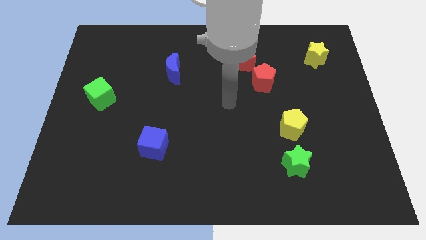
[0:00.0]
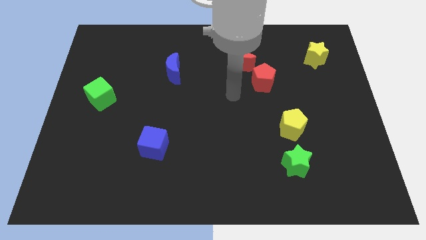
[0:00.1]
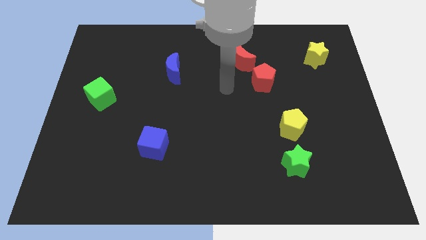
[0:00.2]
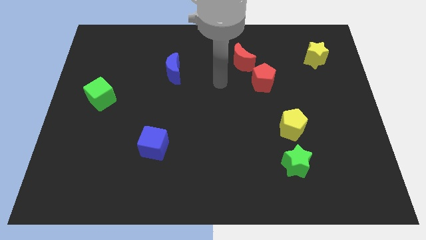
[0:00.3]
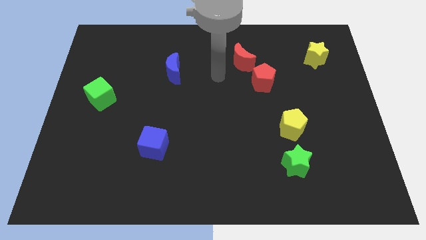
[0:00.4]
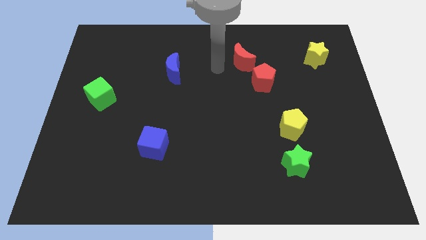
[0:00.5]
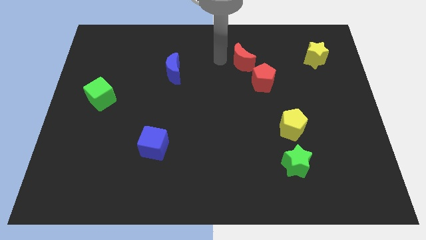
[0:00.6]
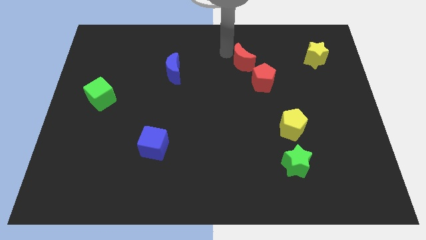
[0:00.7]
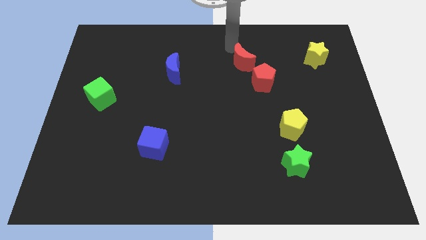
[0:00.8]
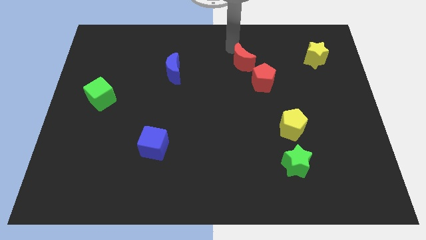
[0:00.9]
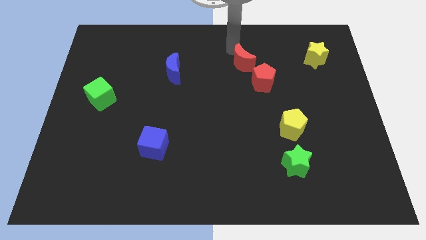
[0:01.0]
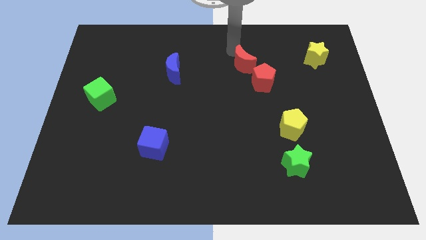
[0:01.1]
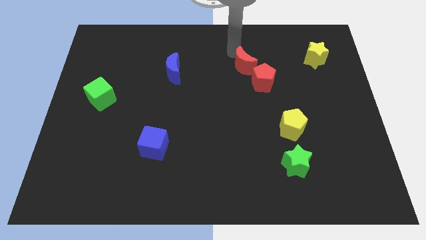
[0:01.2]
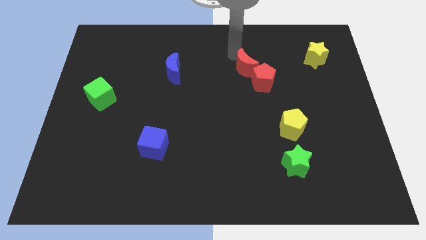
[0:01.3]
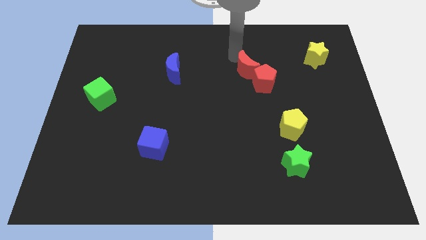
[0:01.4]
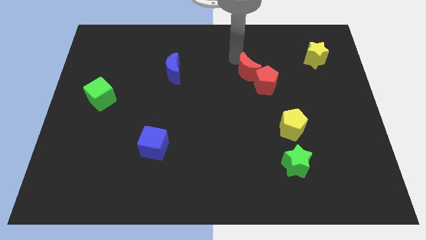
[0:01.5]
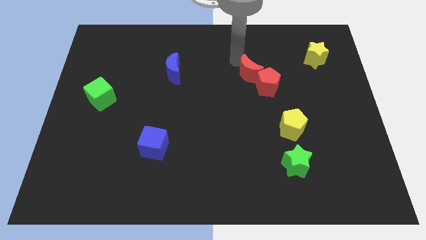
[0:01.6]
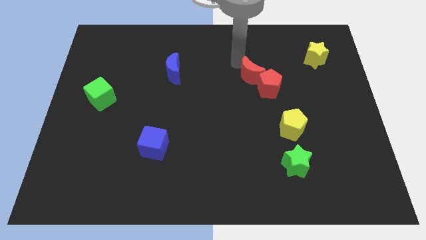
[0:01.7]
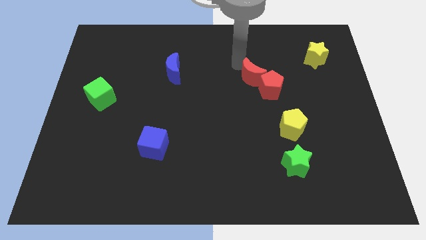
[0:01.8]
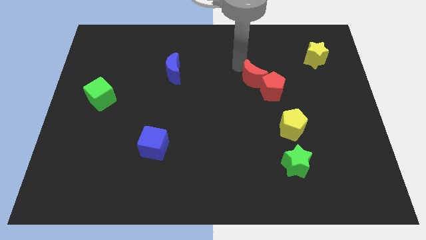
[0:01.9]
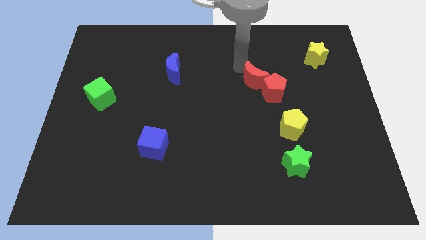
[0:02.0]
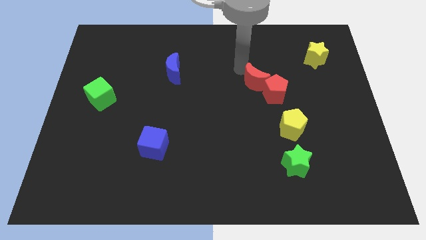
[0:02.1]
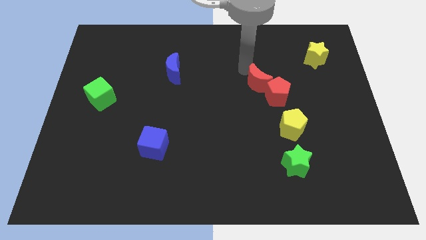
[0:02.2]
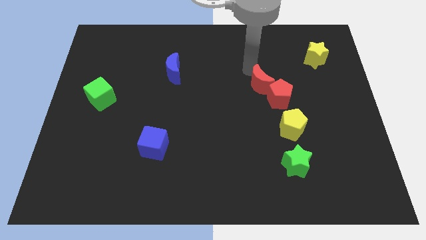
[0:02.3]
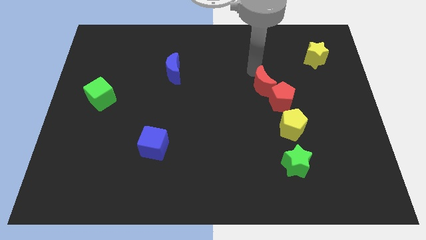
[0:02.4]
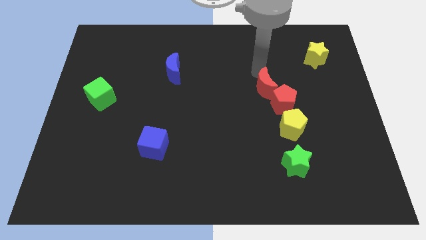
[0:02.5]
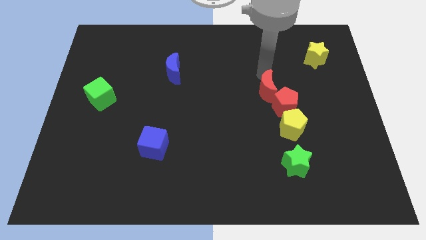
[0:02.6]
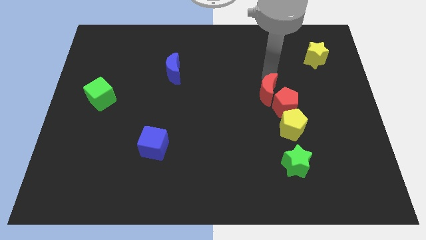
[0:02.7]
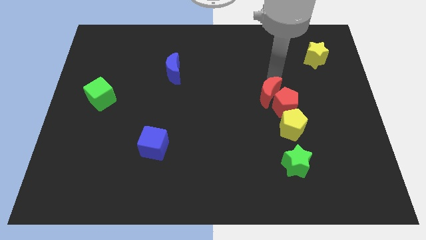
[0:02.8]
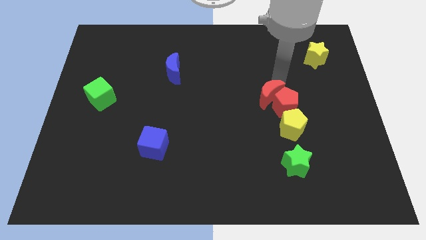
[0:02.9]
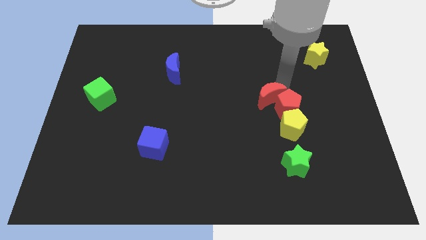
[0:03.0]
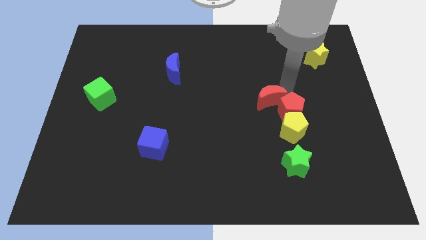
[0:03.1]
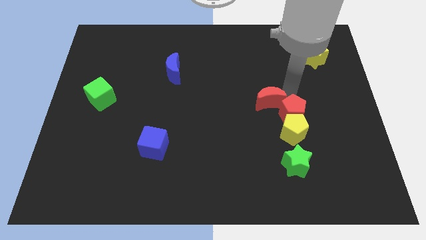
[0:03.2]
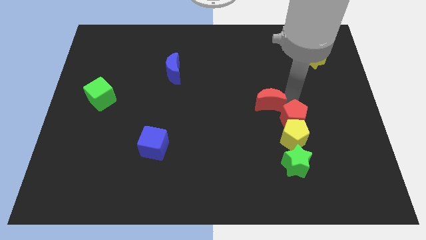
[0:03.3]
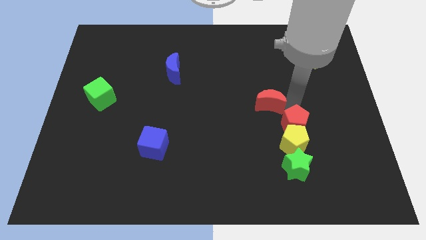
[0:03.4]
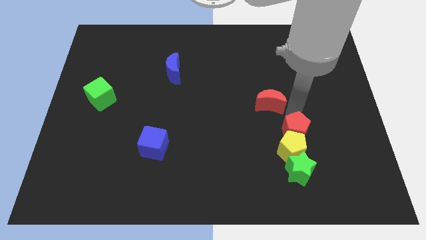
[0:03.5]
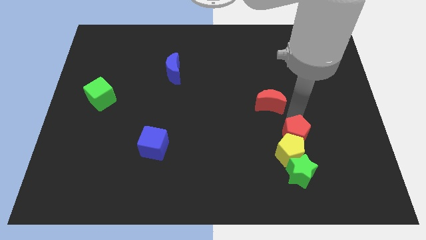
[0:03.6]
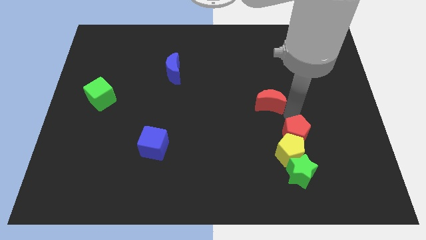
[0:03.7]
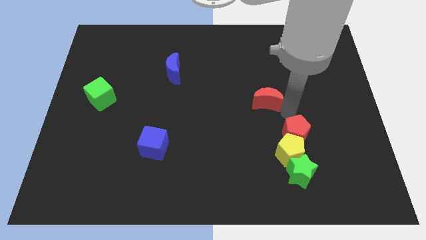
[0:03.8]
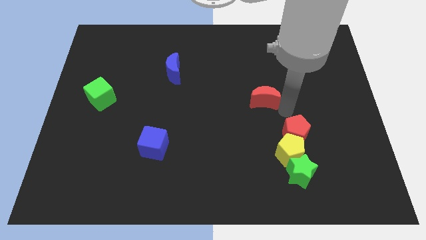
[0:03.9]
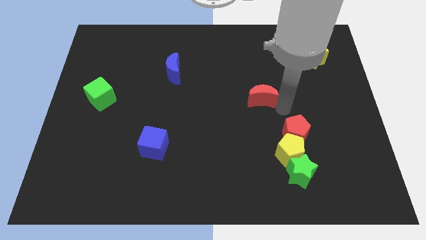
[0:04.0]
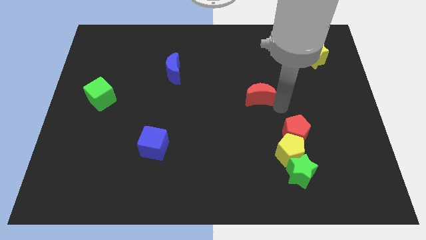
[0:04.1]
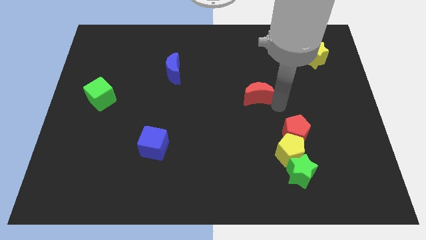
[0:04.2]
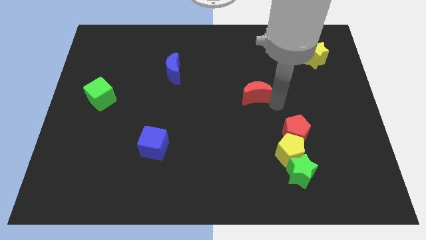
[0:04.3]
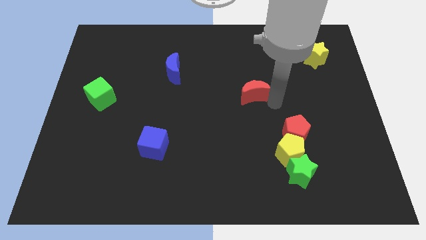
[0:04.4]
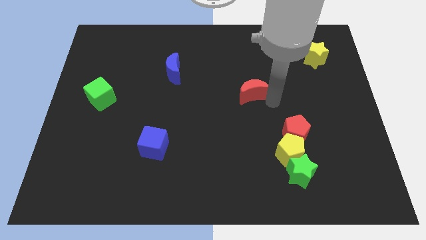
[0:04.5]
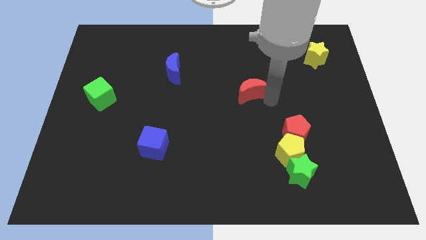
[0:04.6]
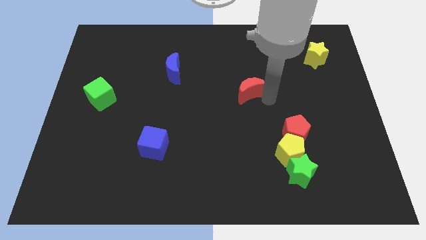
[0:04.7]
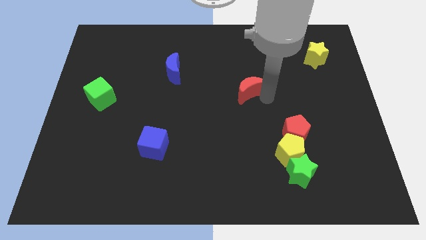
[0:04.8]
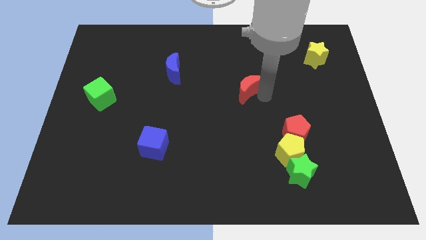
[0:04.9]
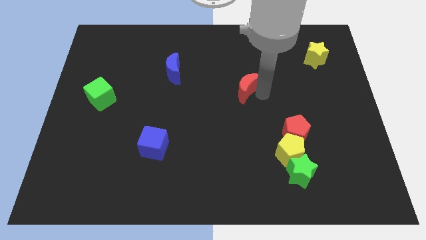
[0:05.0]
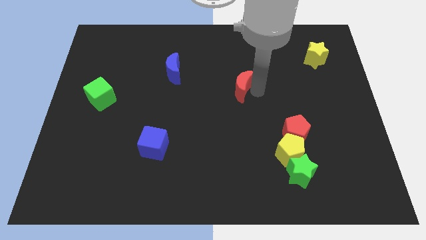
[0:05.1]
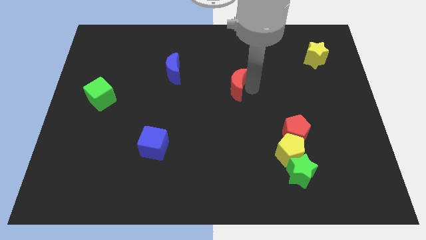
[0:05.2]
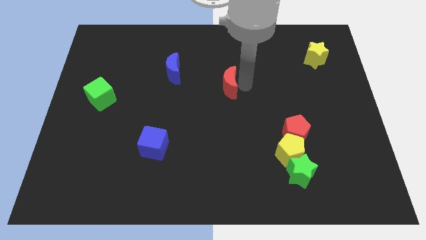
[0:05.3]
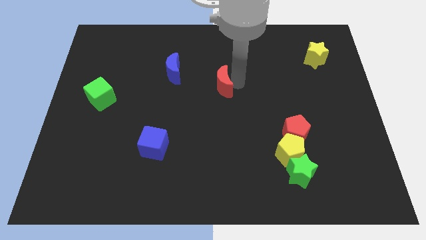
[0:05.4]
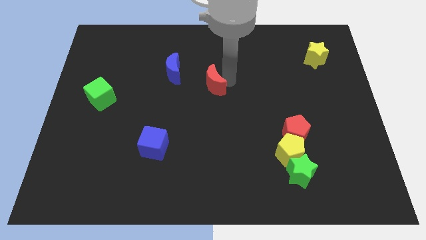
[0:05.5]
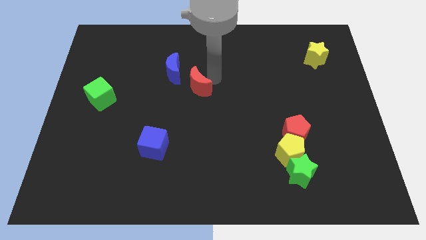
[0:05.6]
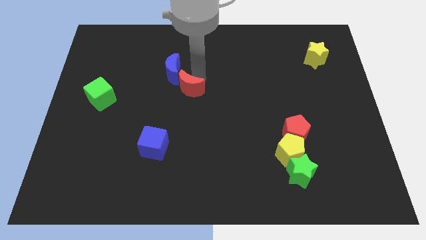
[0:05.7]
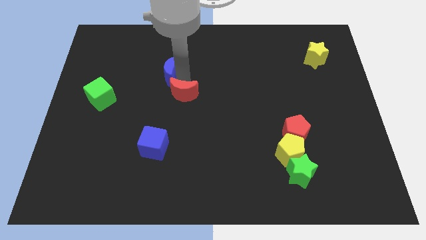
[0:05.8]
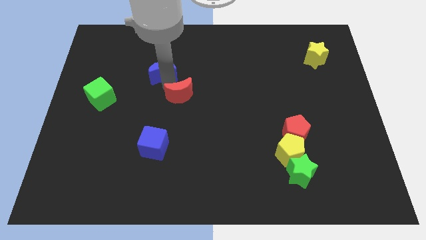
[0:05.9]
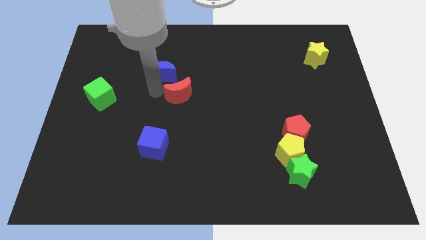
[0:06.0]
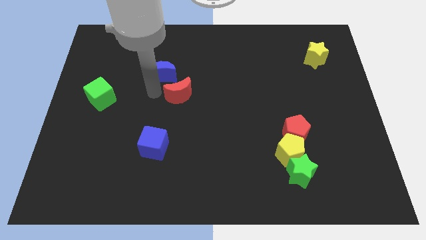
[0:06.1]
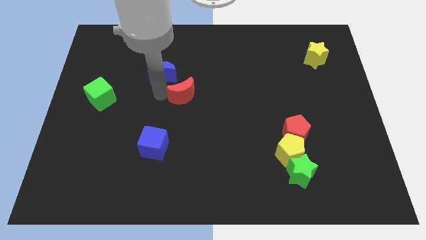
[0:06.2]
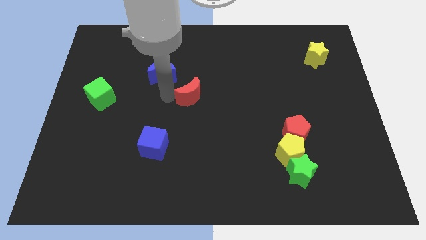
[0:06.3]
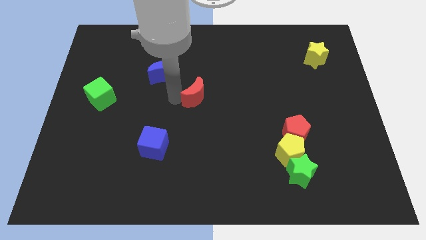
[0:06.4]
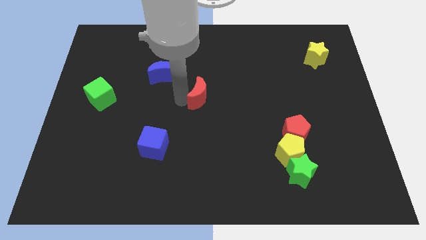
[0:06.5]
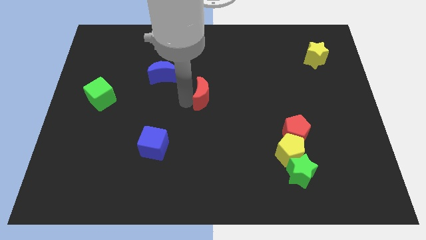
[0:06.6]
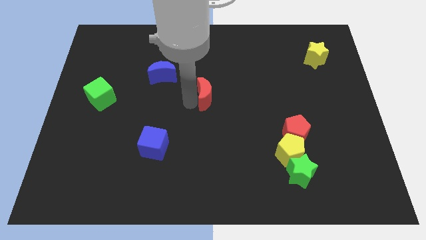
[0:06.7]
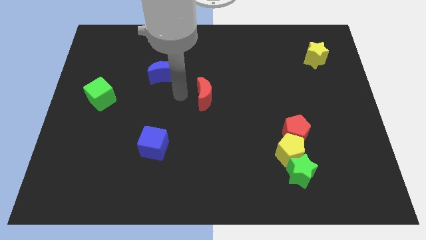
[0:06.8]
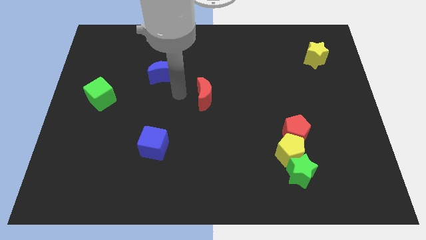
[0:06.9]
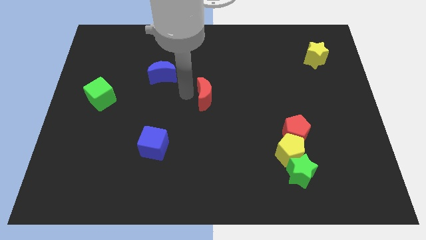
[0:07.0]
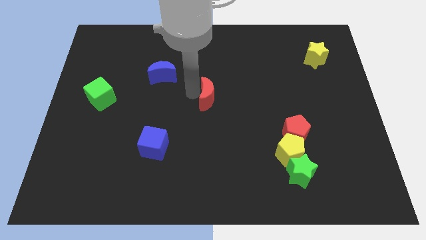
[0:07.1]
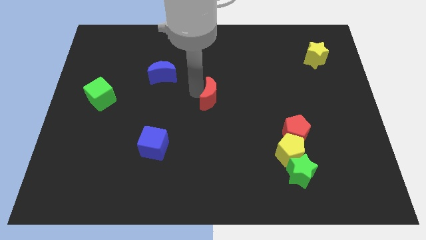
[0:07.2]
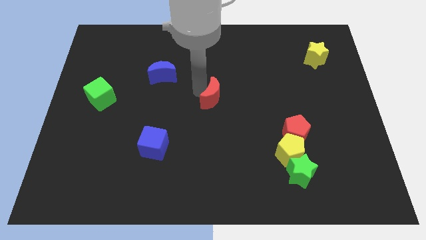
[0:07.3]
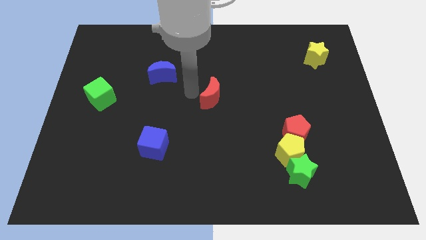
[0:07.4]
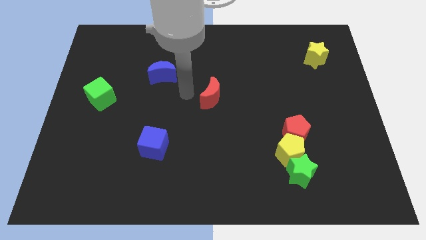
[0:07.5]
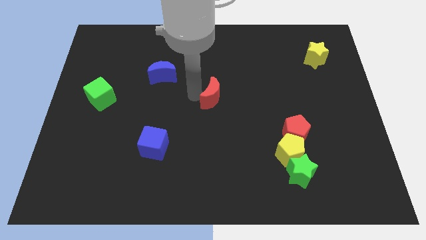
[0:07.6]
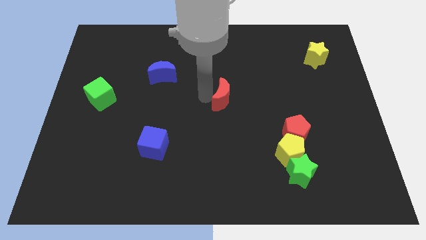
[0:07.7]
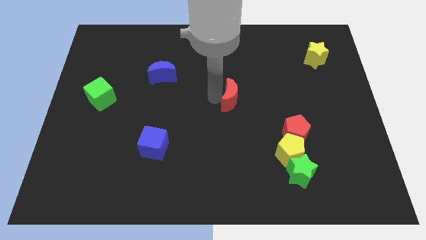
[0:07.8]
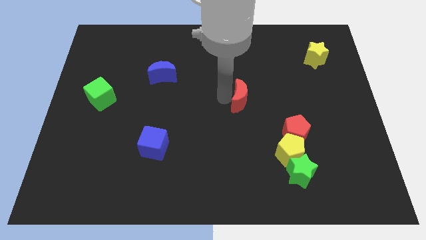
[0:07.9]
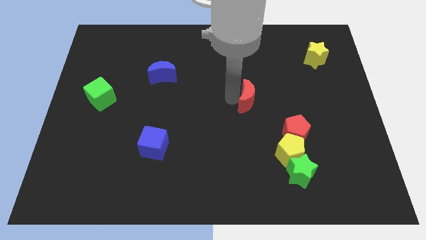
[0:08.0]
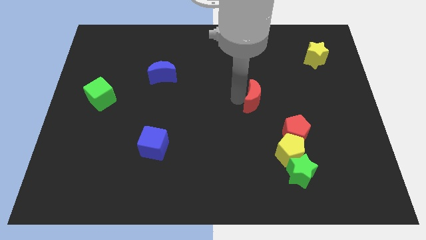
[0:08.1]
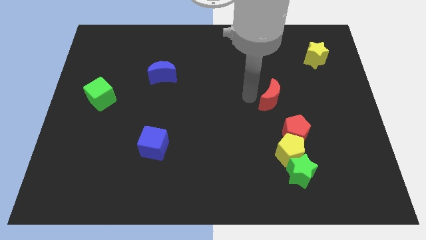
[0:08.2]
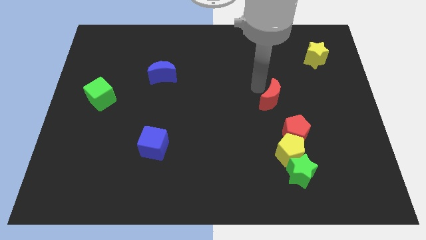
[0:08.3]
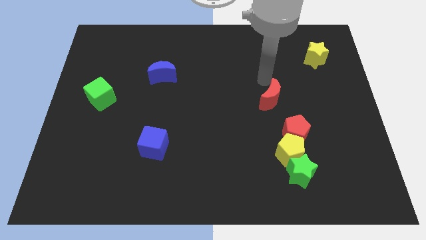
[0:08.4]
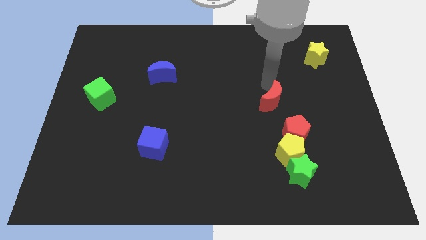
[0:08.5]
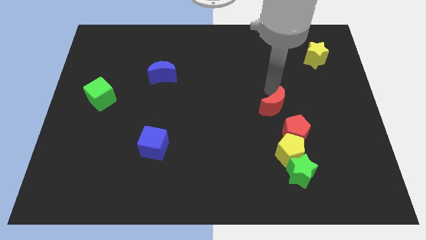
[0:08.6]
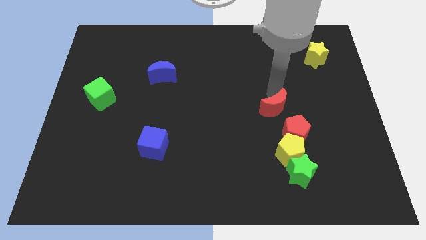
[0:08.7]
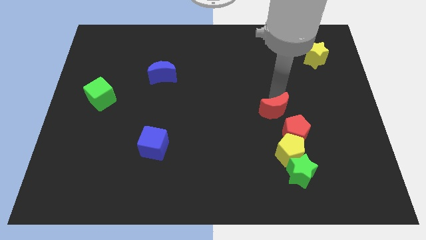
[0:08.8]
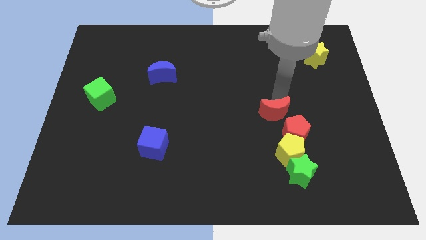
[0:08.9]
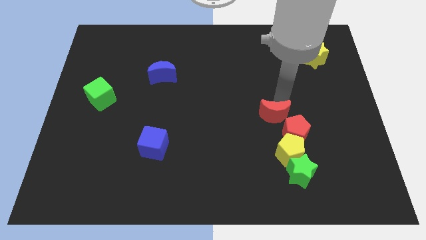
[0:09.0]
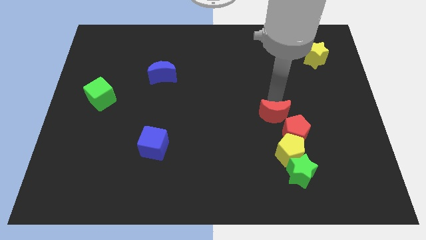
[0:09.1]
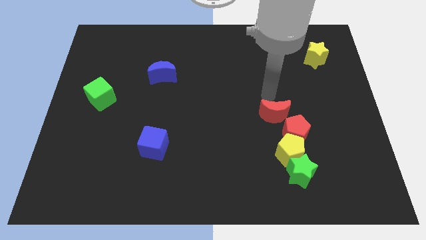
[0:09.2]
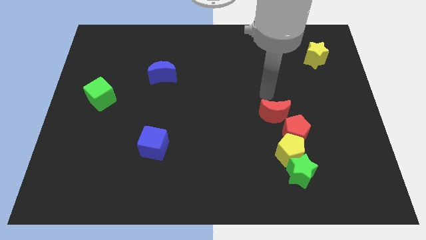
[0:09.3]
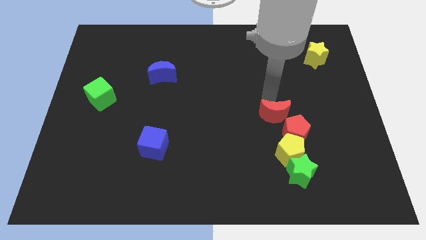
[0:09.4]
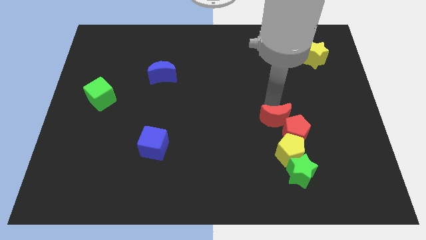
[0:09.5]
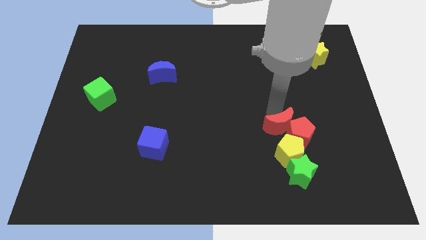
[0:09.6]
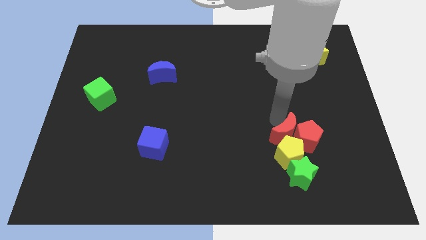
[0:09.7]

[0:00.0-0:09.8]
slide the red moon next to the yellow pentagon
